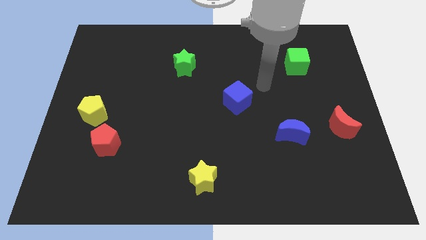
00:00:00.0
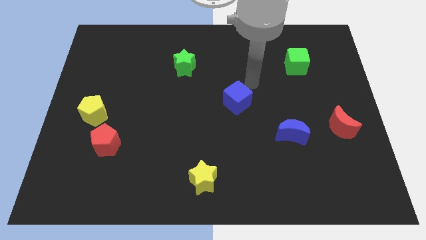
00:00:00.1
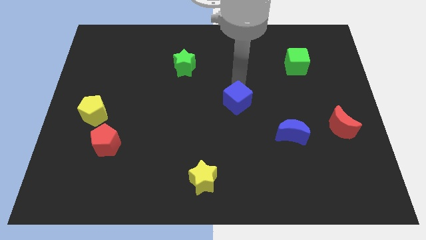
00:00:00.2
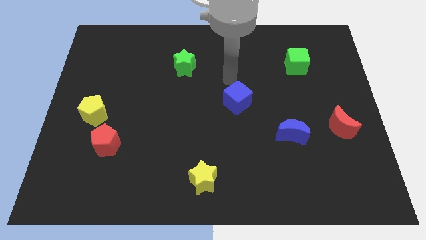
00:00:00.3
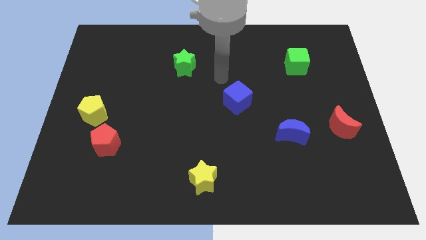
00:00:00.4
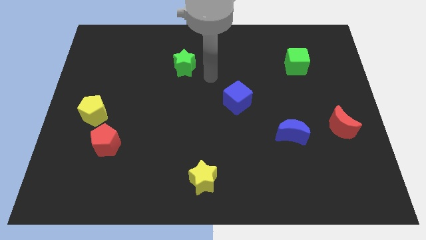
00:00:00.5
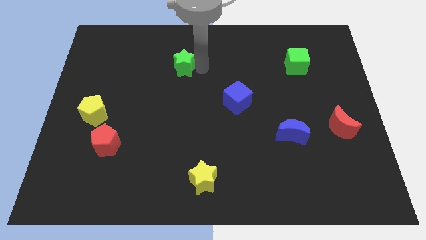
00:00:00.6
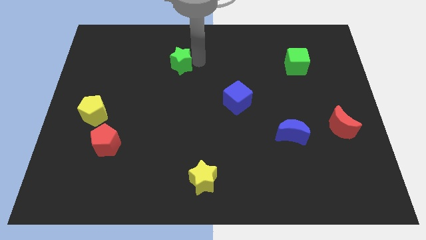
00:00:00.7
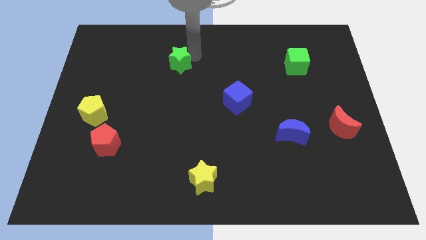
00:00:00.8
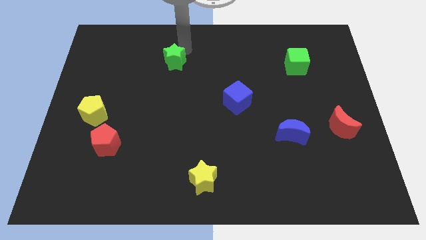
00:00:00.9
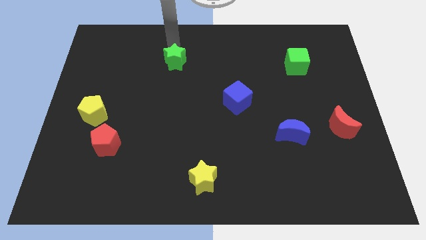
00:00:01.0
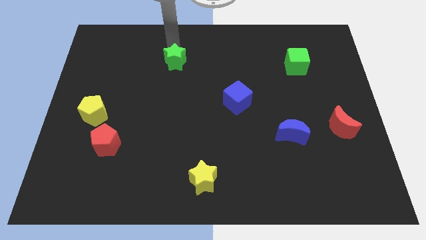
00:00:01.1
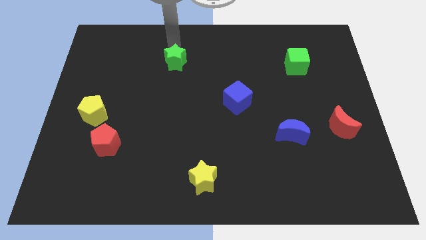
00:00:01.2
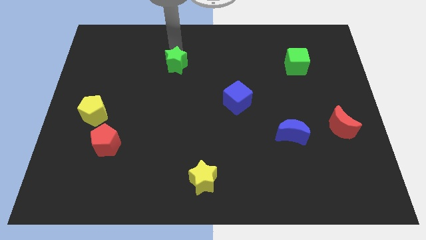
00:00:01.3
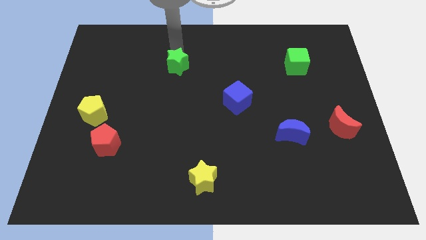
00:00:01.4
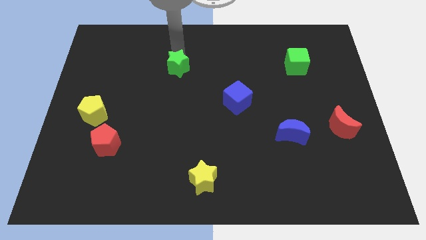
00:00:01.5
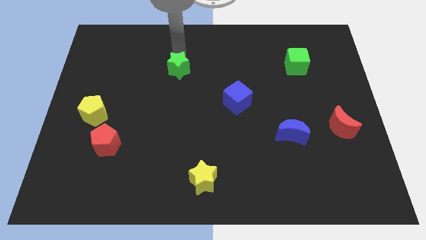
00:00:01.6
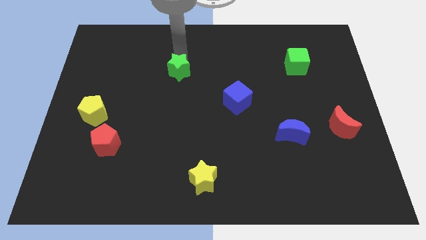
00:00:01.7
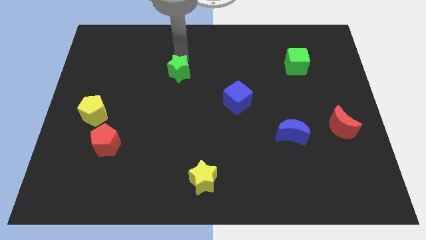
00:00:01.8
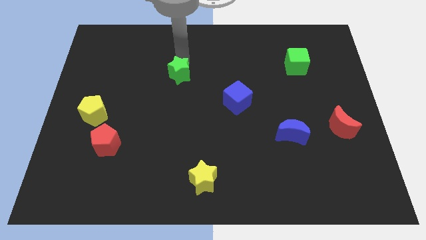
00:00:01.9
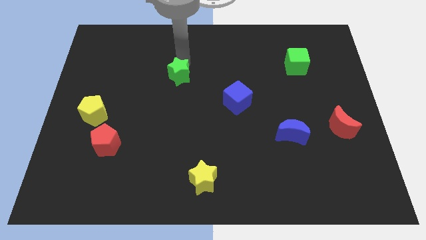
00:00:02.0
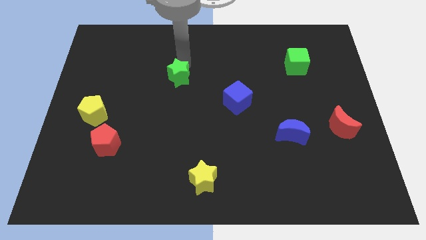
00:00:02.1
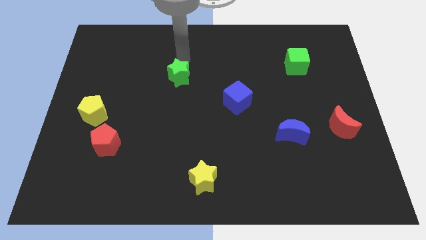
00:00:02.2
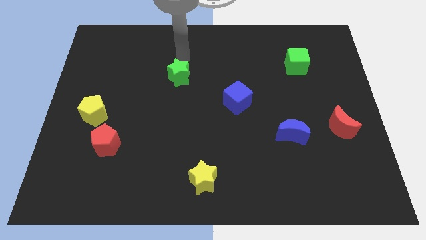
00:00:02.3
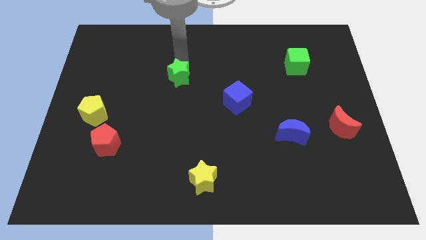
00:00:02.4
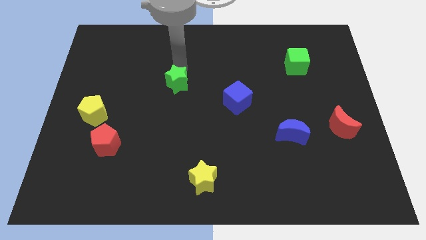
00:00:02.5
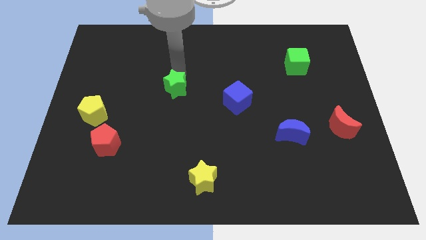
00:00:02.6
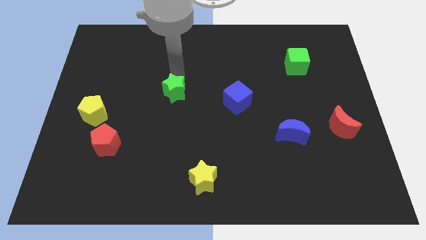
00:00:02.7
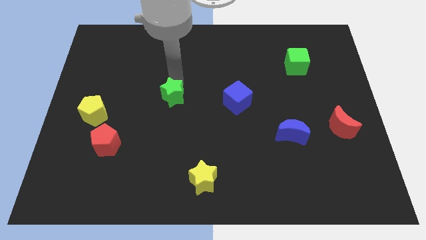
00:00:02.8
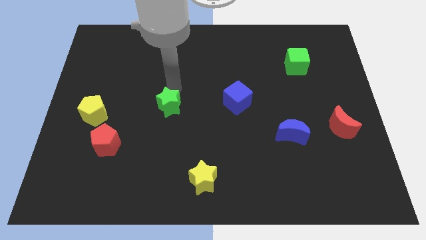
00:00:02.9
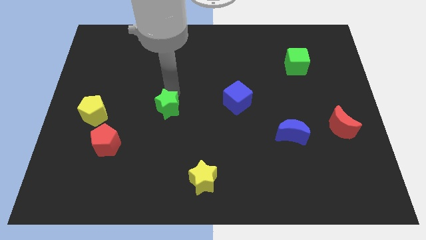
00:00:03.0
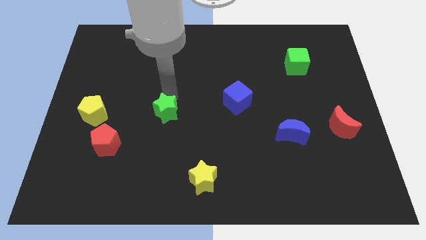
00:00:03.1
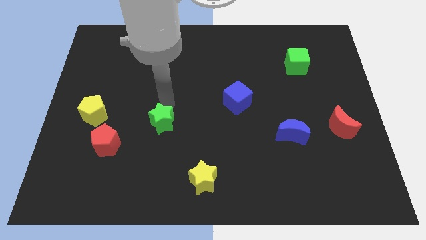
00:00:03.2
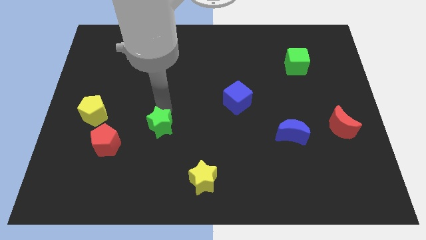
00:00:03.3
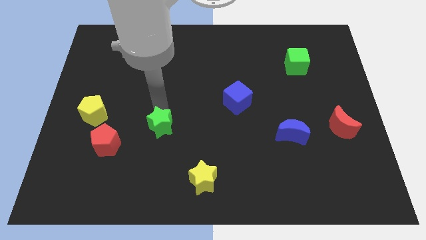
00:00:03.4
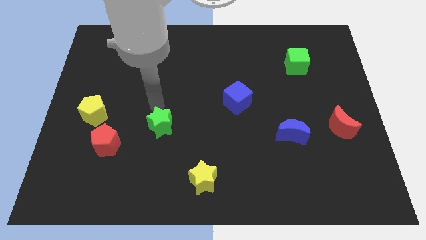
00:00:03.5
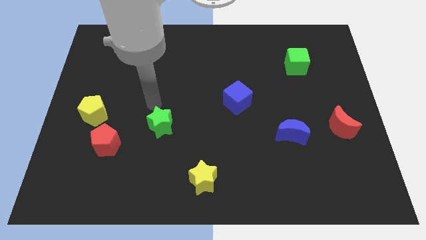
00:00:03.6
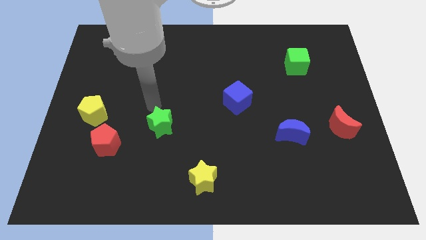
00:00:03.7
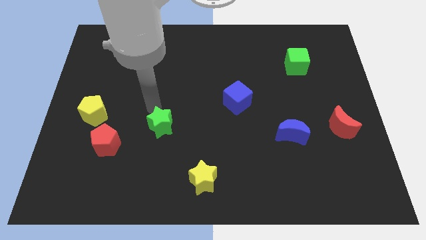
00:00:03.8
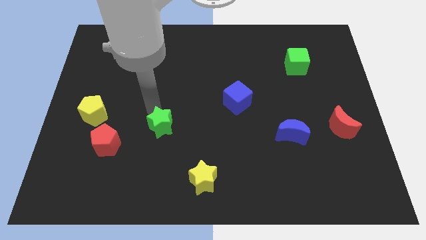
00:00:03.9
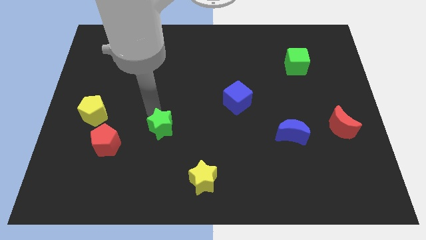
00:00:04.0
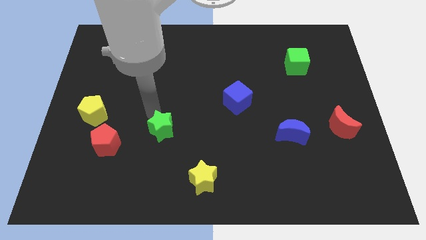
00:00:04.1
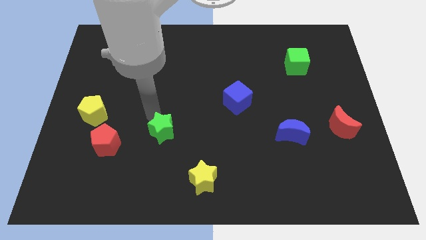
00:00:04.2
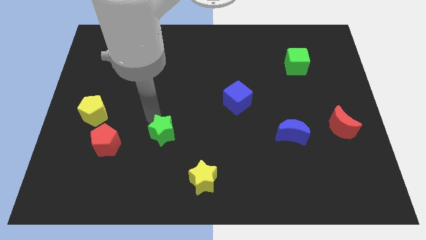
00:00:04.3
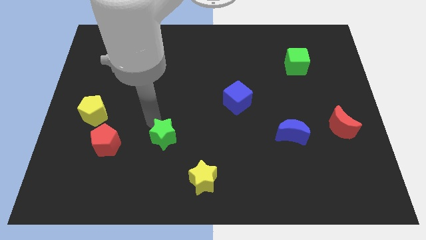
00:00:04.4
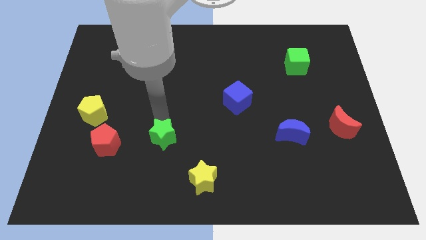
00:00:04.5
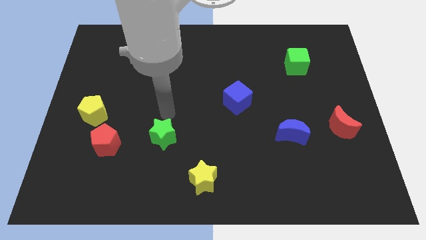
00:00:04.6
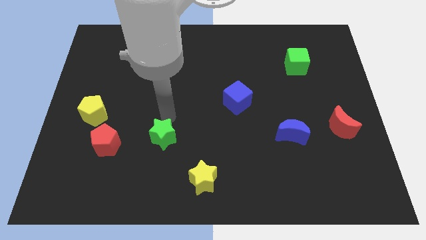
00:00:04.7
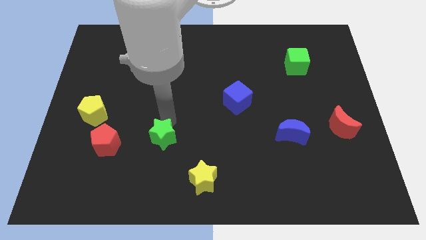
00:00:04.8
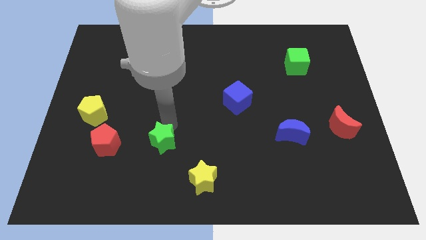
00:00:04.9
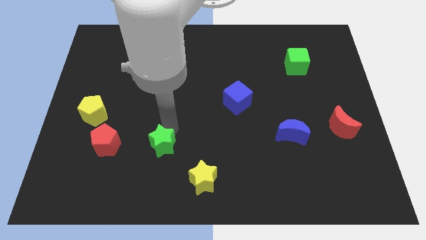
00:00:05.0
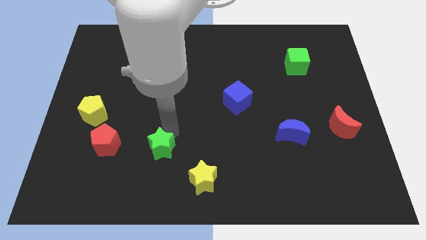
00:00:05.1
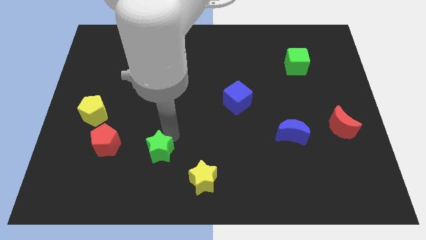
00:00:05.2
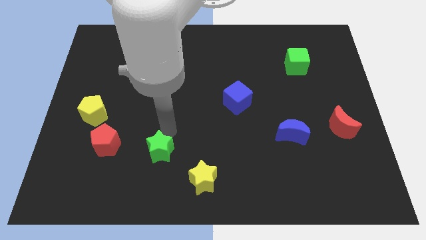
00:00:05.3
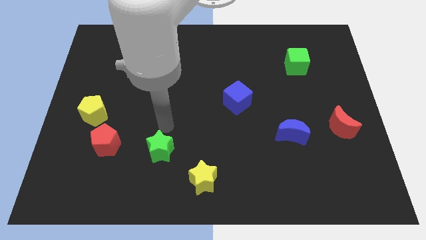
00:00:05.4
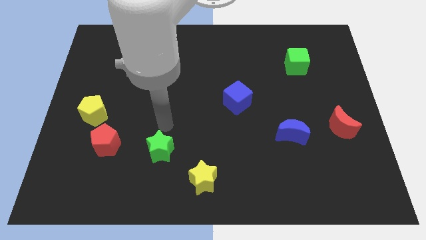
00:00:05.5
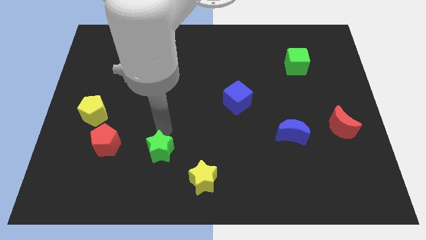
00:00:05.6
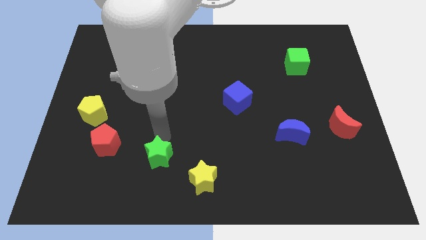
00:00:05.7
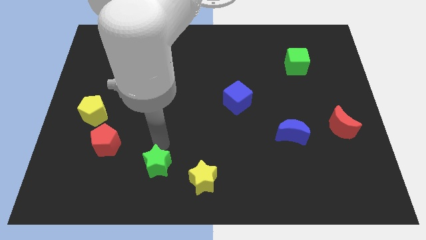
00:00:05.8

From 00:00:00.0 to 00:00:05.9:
move the green star just left of the yellow star

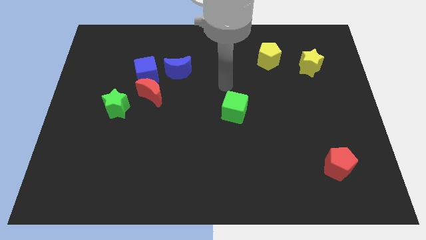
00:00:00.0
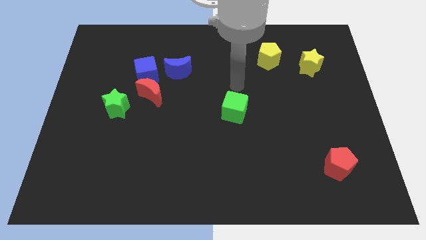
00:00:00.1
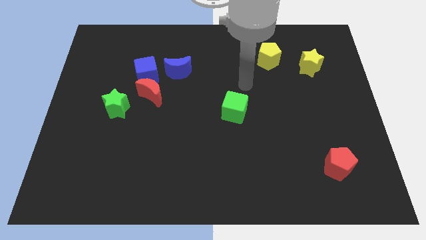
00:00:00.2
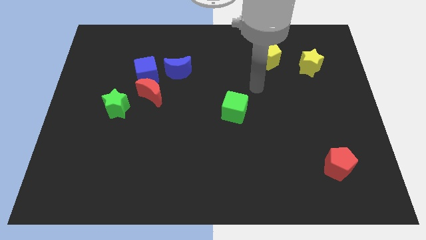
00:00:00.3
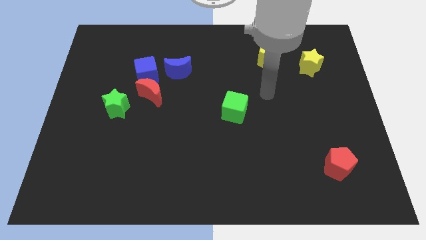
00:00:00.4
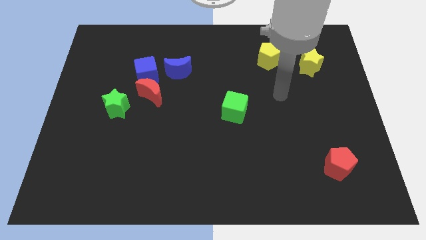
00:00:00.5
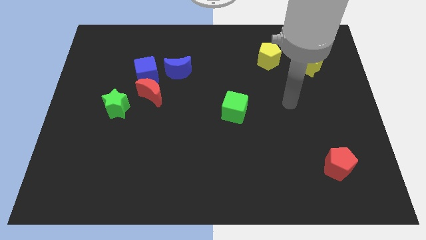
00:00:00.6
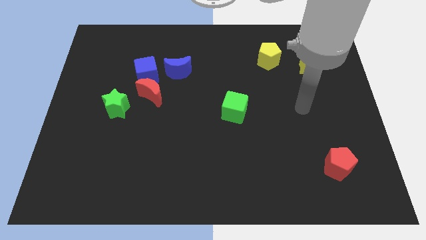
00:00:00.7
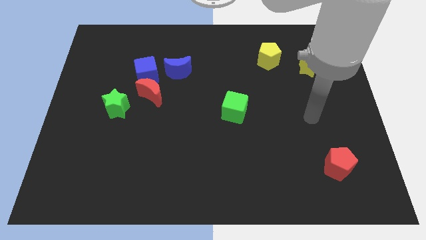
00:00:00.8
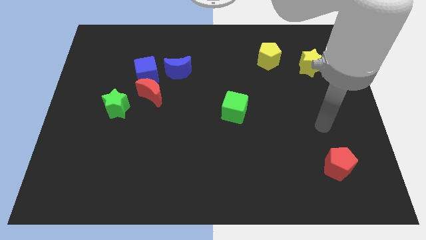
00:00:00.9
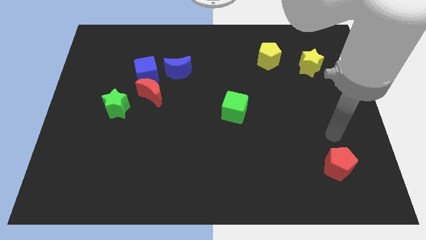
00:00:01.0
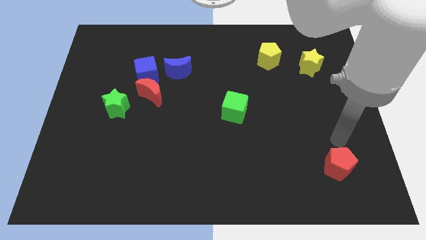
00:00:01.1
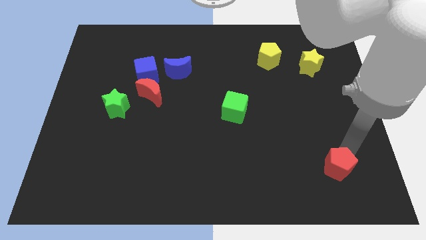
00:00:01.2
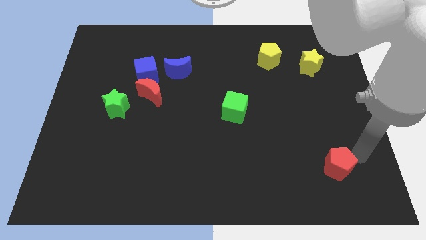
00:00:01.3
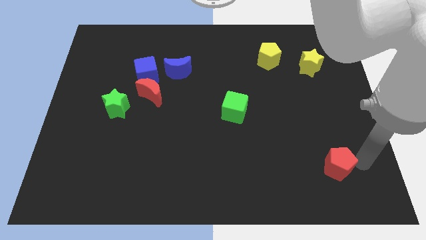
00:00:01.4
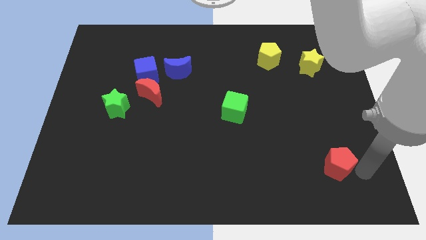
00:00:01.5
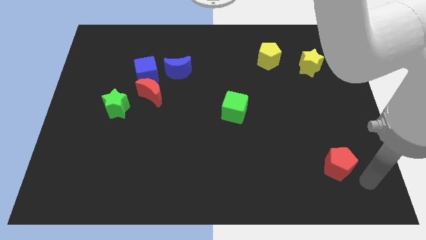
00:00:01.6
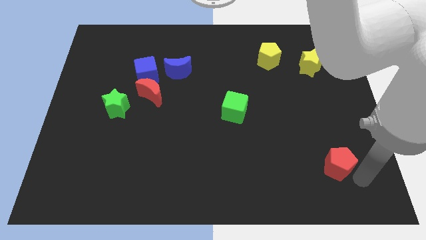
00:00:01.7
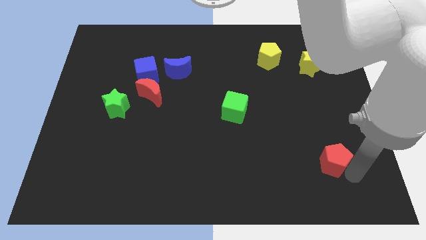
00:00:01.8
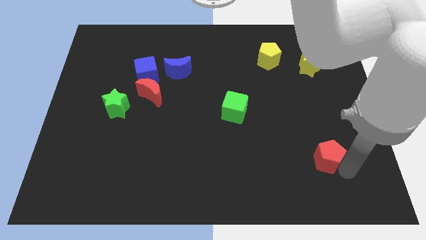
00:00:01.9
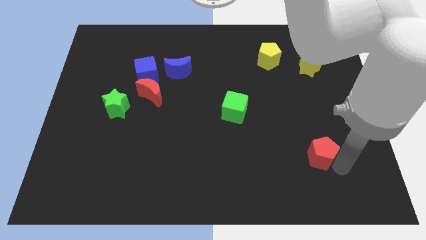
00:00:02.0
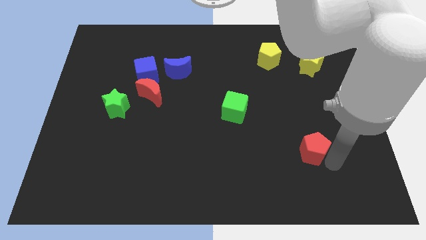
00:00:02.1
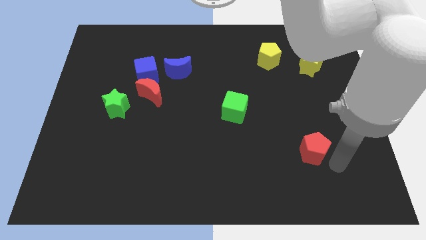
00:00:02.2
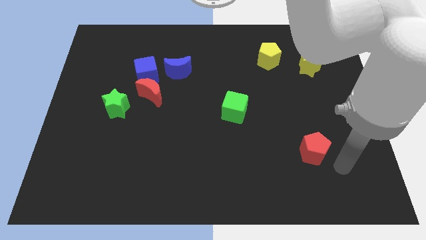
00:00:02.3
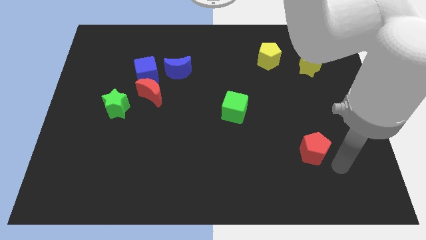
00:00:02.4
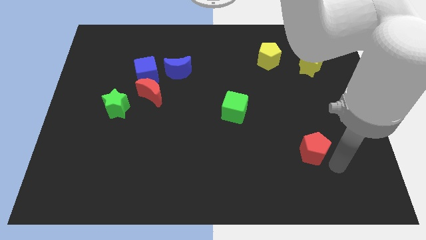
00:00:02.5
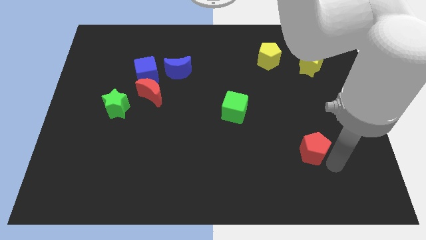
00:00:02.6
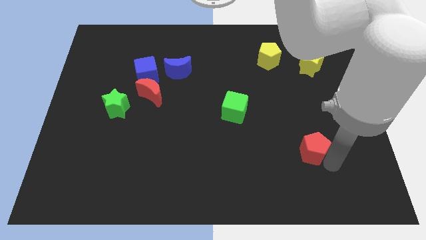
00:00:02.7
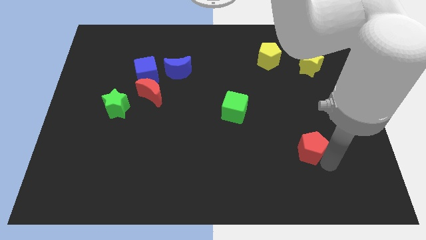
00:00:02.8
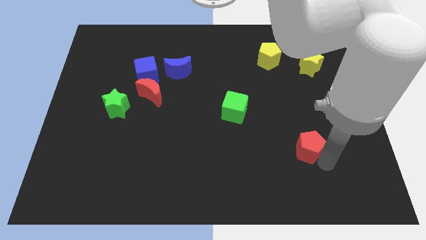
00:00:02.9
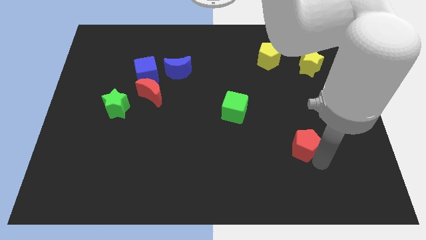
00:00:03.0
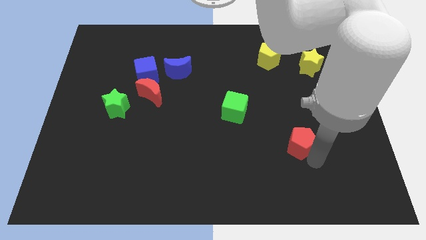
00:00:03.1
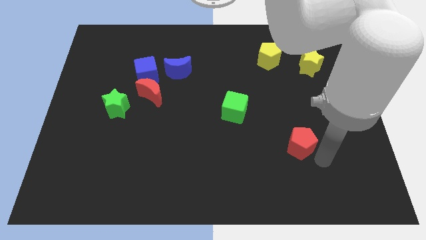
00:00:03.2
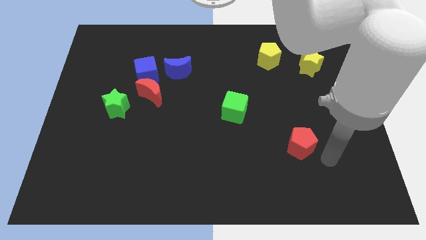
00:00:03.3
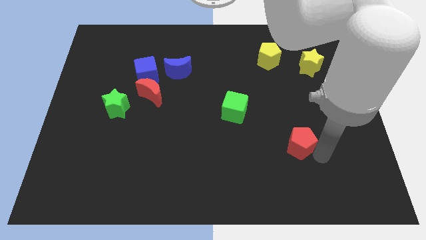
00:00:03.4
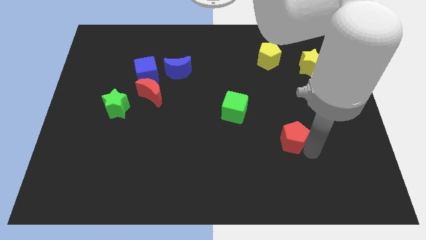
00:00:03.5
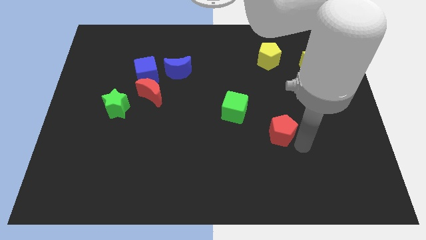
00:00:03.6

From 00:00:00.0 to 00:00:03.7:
put the red pentagon diagonally down and to the right of the green cube
